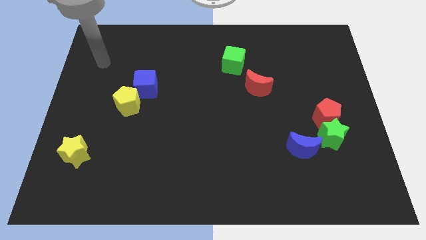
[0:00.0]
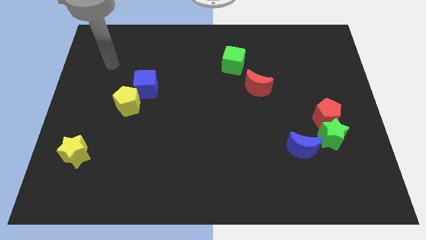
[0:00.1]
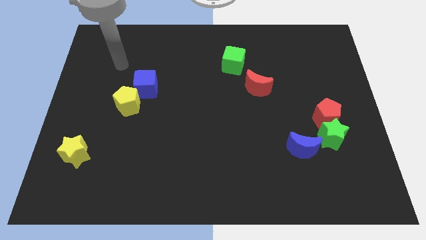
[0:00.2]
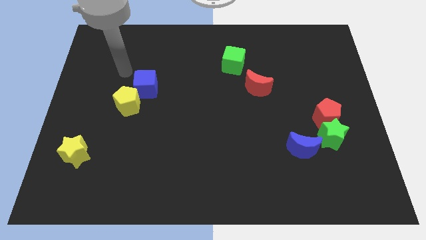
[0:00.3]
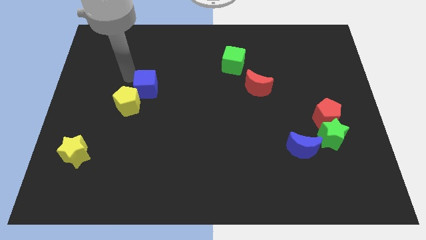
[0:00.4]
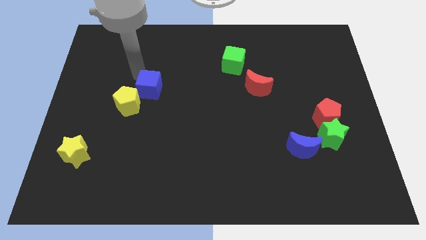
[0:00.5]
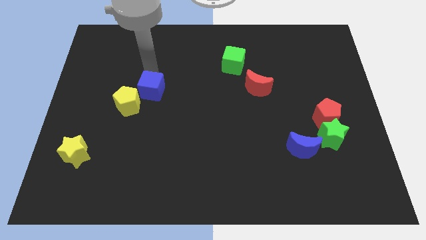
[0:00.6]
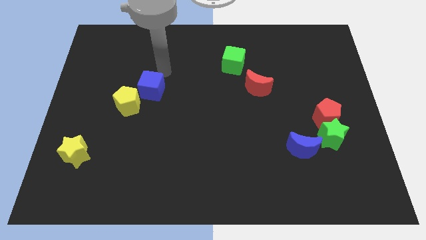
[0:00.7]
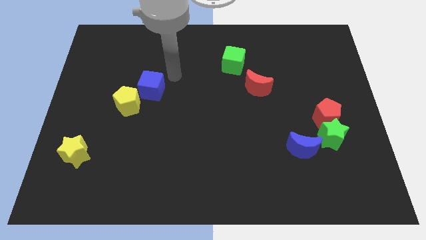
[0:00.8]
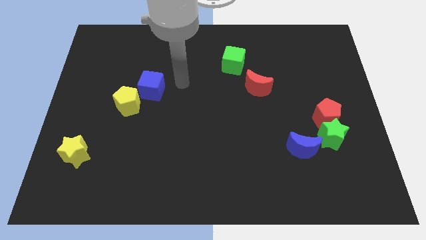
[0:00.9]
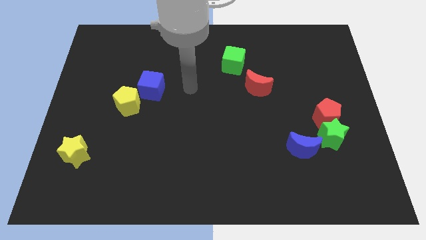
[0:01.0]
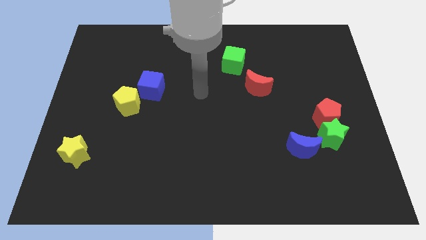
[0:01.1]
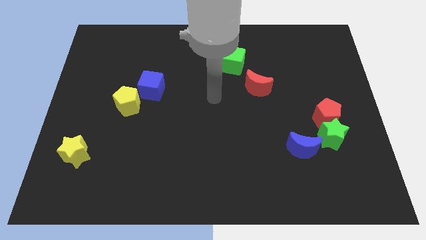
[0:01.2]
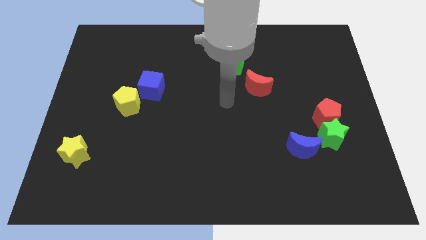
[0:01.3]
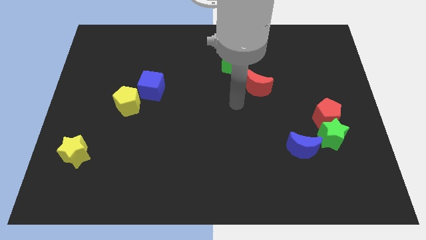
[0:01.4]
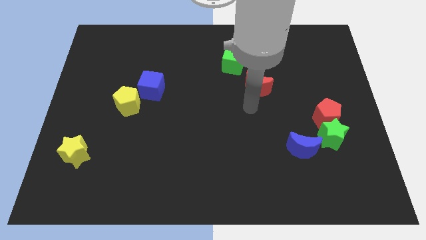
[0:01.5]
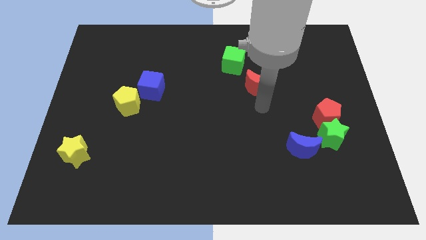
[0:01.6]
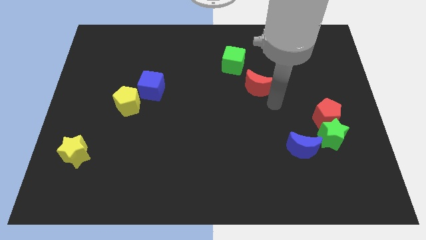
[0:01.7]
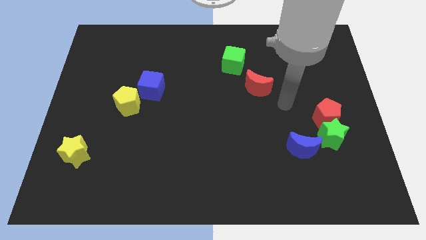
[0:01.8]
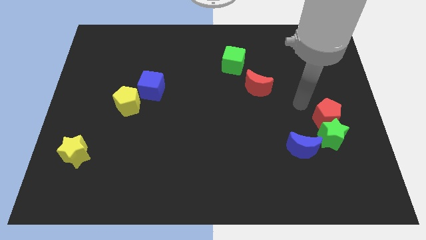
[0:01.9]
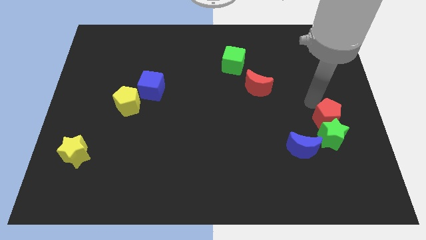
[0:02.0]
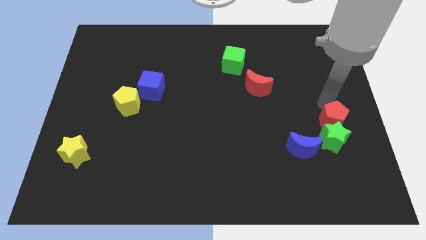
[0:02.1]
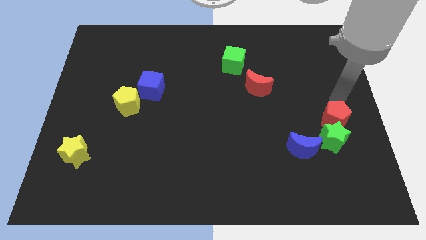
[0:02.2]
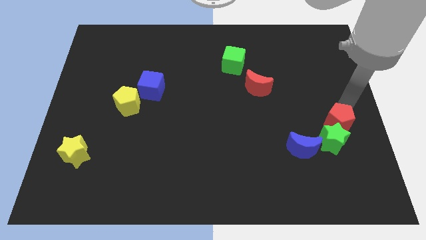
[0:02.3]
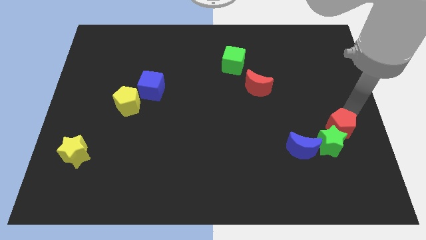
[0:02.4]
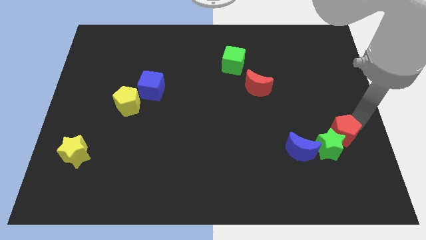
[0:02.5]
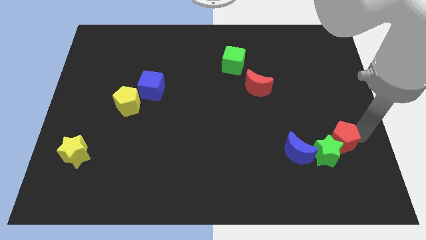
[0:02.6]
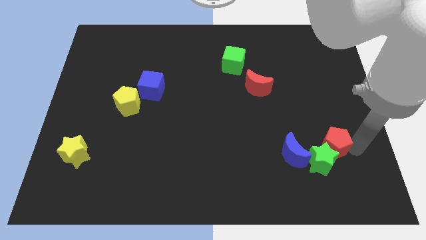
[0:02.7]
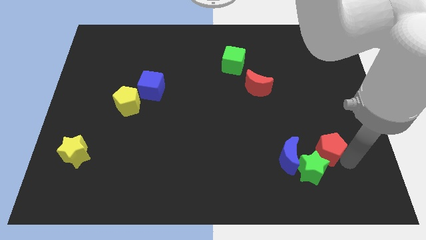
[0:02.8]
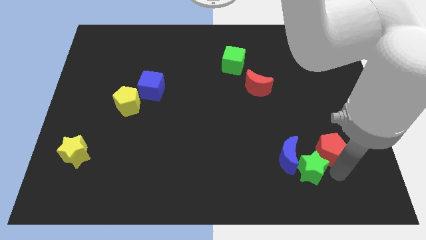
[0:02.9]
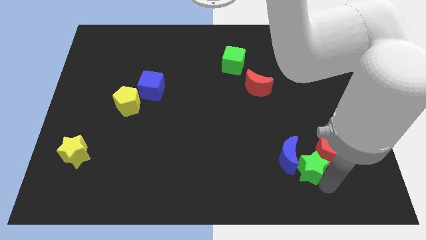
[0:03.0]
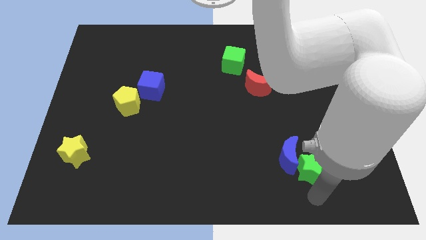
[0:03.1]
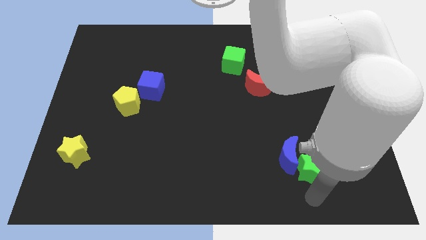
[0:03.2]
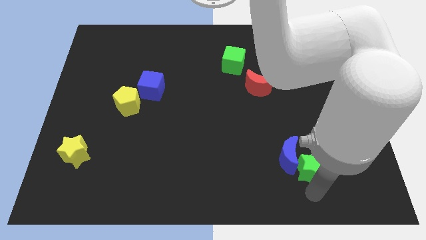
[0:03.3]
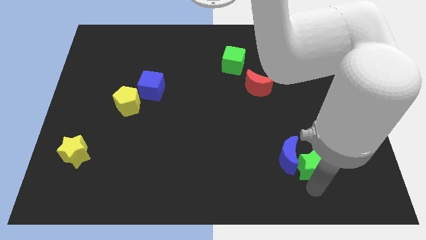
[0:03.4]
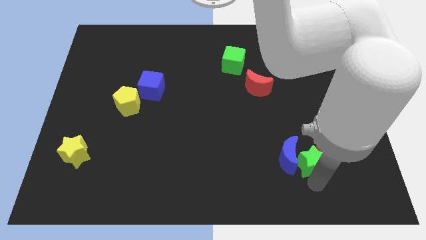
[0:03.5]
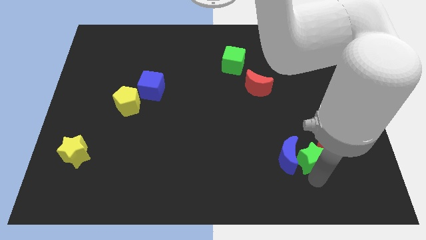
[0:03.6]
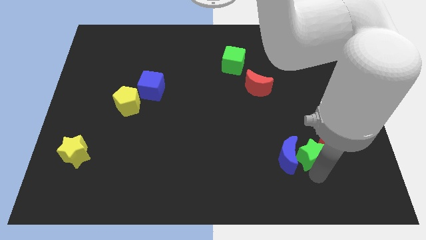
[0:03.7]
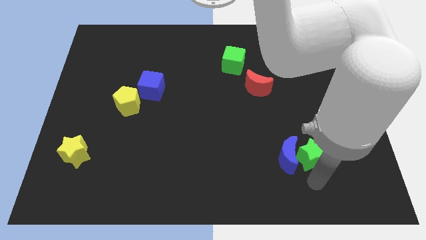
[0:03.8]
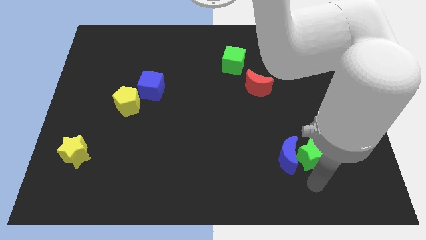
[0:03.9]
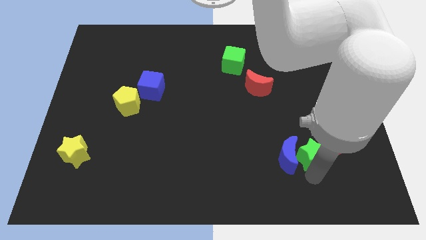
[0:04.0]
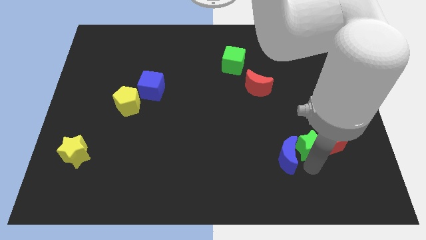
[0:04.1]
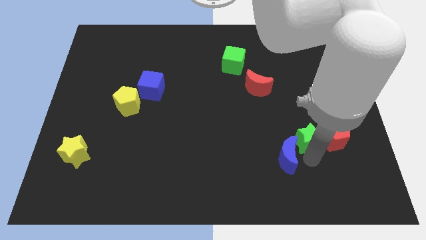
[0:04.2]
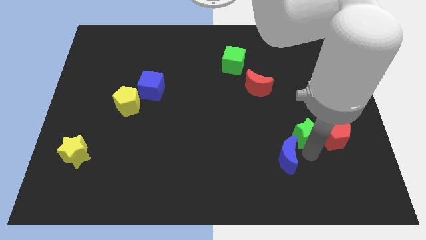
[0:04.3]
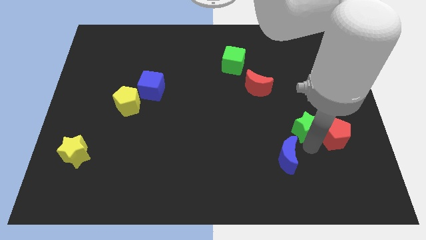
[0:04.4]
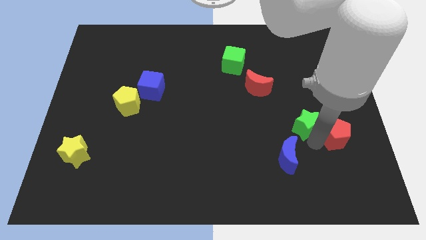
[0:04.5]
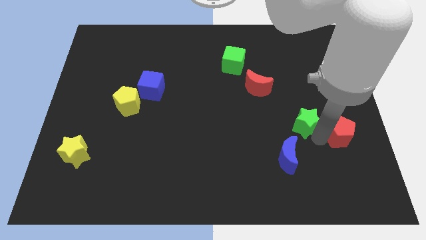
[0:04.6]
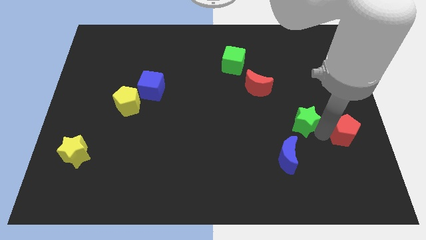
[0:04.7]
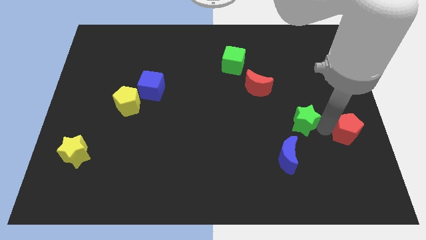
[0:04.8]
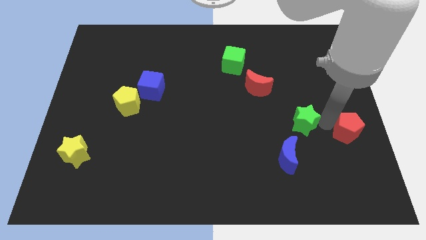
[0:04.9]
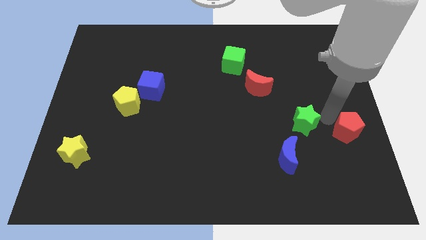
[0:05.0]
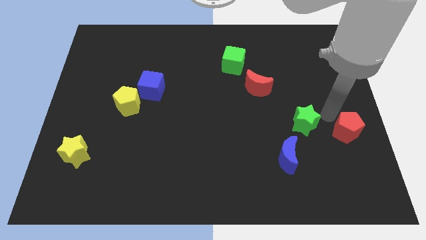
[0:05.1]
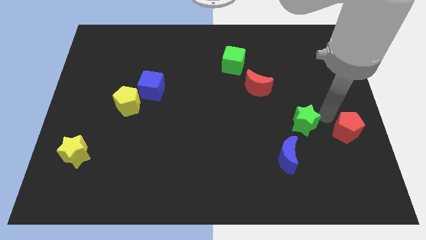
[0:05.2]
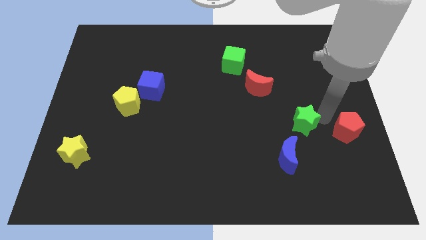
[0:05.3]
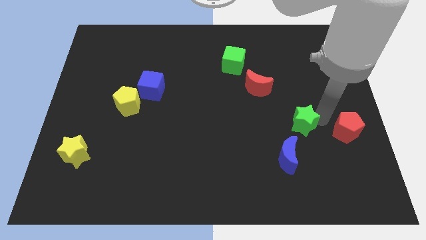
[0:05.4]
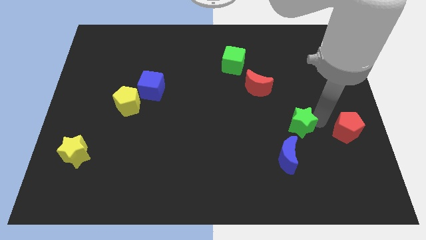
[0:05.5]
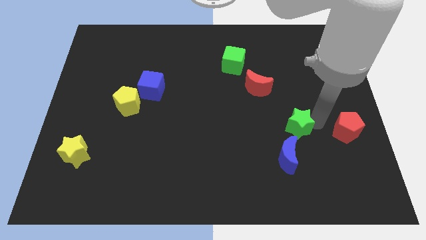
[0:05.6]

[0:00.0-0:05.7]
move the green star to the left slightly

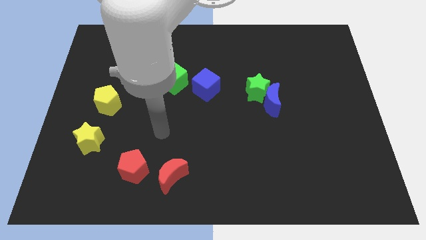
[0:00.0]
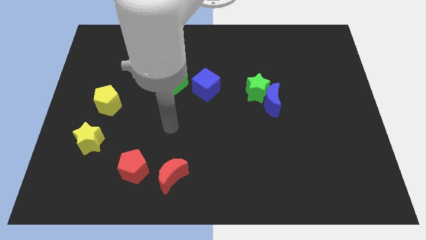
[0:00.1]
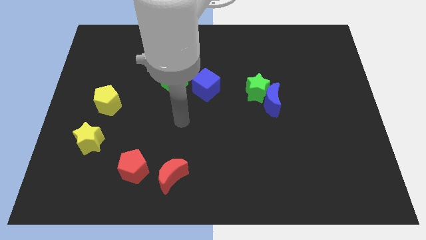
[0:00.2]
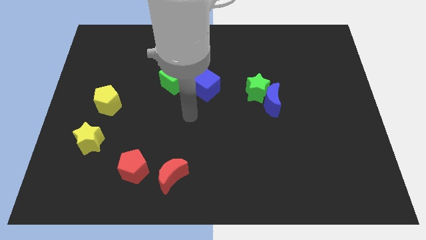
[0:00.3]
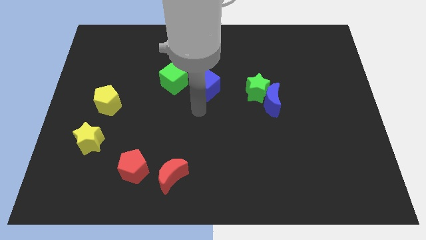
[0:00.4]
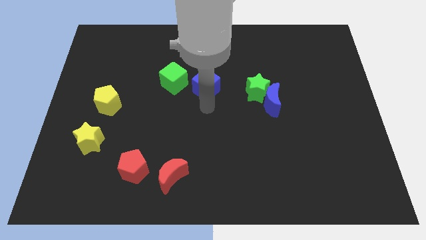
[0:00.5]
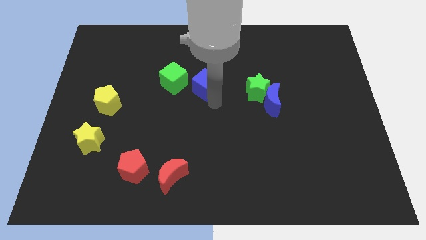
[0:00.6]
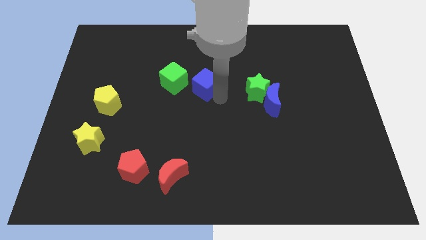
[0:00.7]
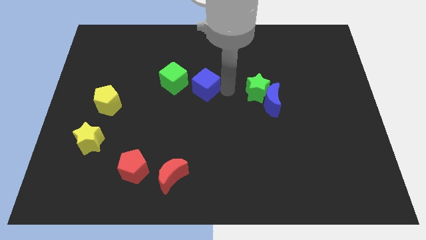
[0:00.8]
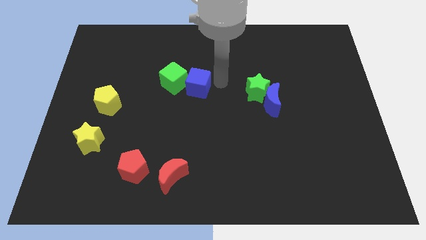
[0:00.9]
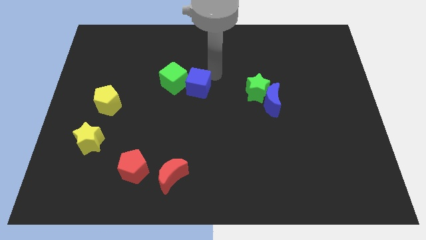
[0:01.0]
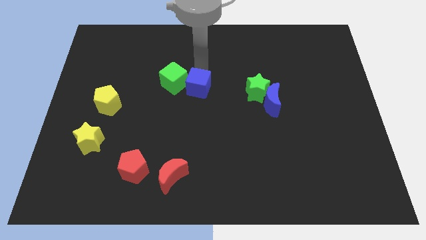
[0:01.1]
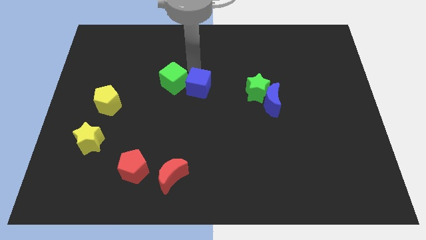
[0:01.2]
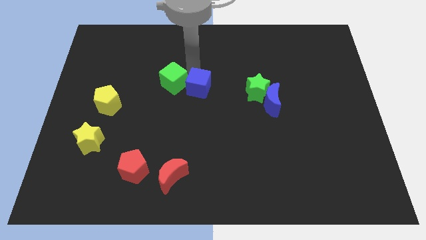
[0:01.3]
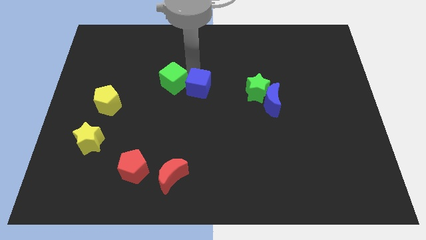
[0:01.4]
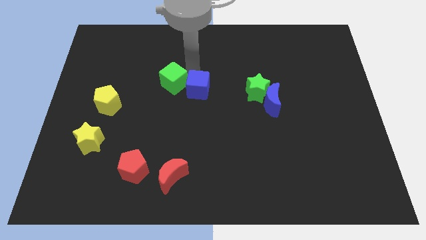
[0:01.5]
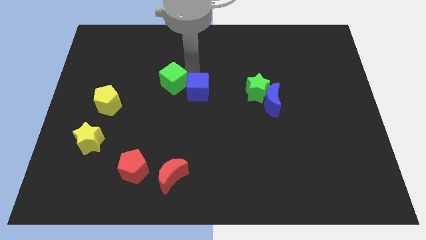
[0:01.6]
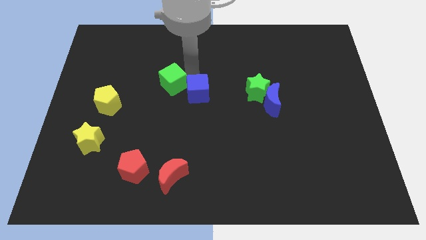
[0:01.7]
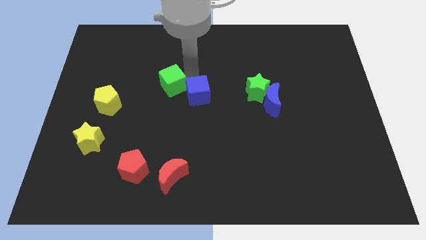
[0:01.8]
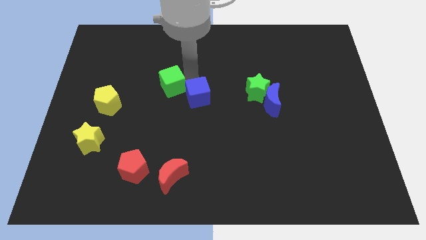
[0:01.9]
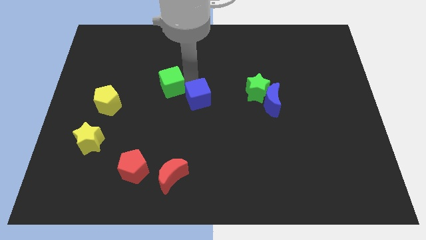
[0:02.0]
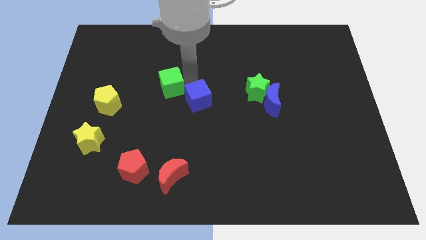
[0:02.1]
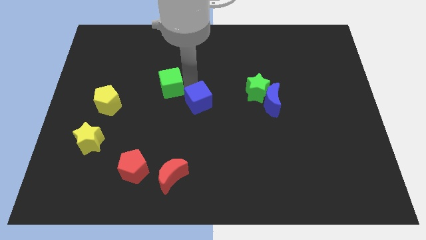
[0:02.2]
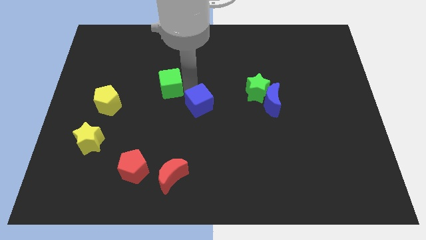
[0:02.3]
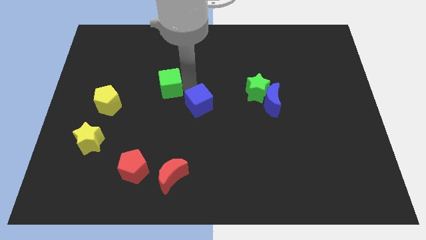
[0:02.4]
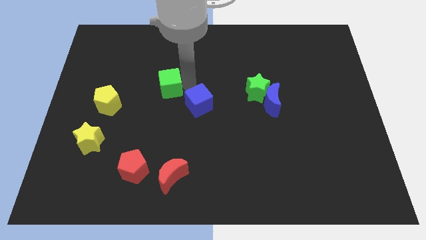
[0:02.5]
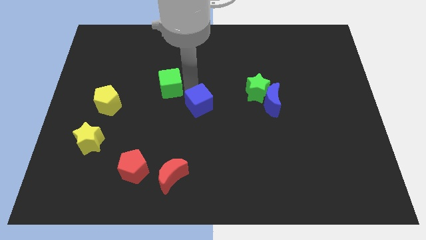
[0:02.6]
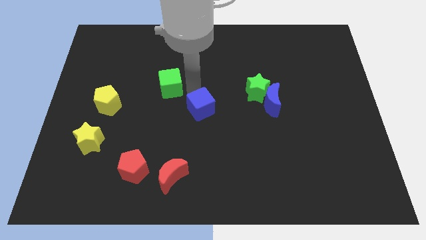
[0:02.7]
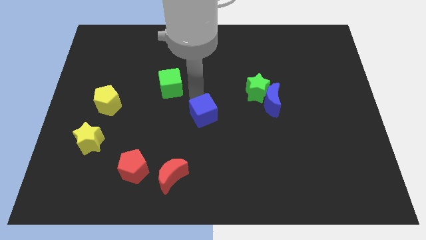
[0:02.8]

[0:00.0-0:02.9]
slide the blue cube somewhat downwards
